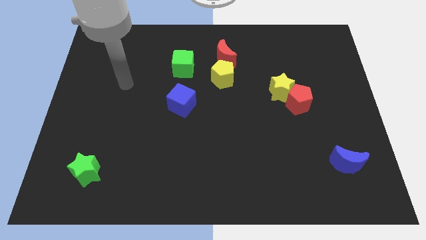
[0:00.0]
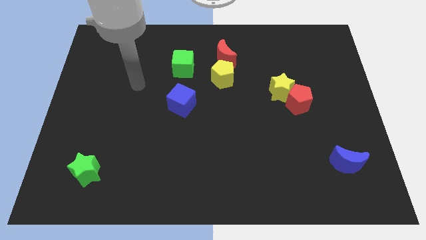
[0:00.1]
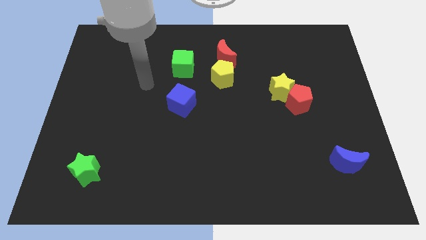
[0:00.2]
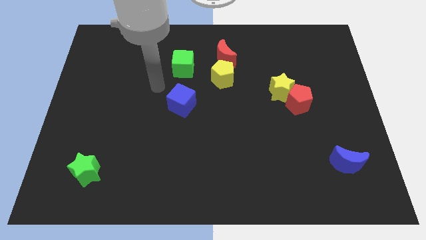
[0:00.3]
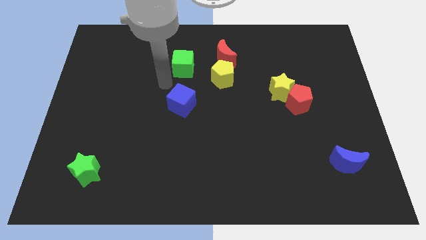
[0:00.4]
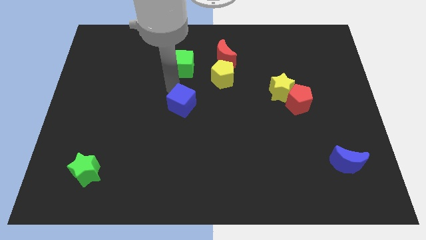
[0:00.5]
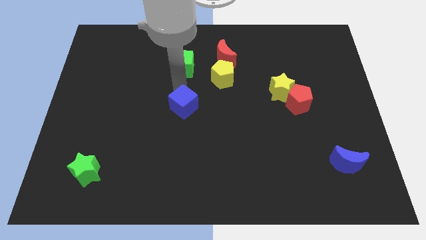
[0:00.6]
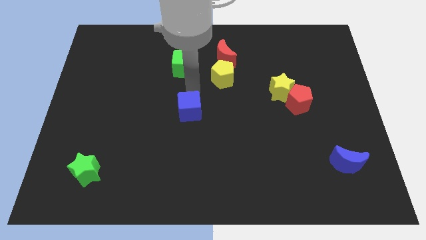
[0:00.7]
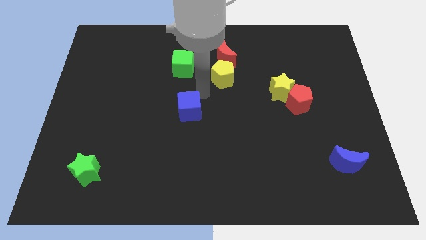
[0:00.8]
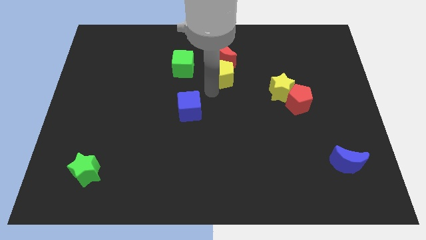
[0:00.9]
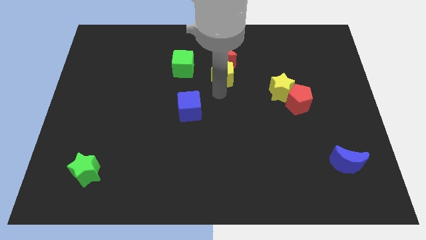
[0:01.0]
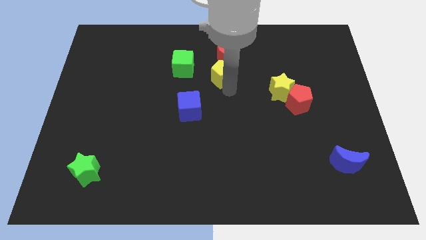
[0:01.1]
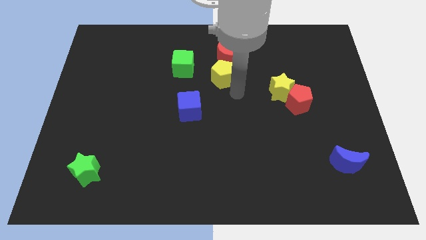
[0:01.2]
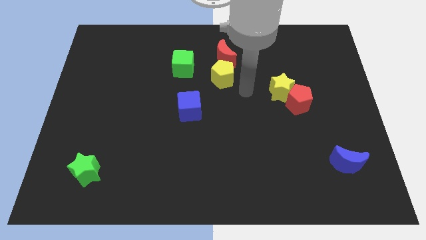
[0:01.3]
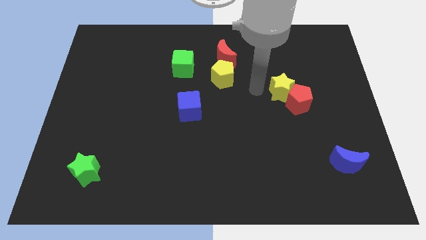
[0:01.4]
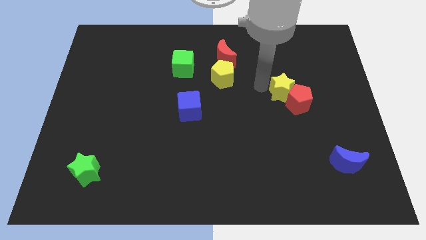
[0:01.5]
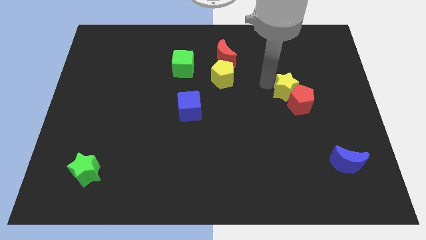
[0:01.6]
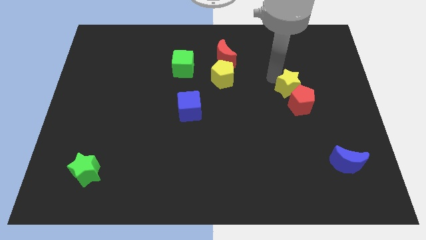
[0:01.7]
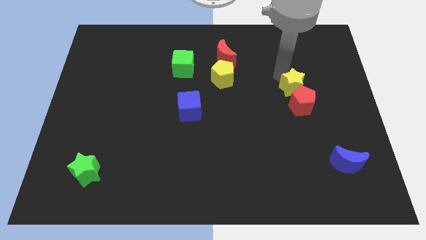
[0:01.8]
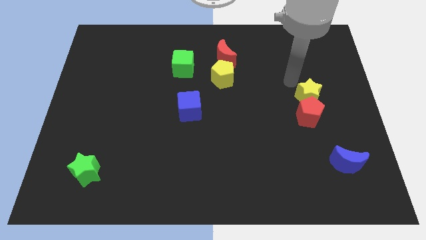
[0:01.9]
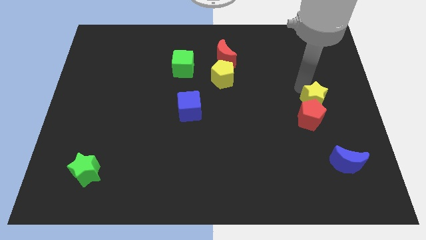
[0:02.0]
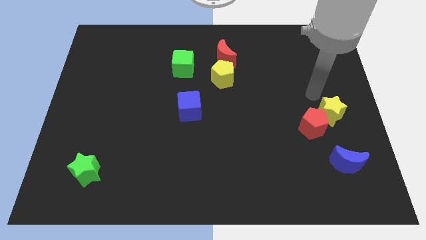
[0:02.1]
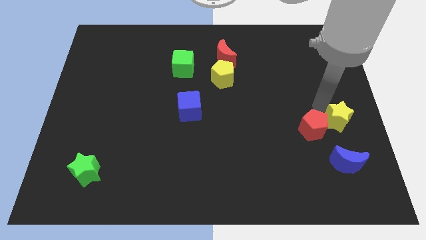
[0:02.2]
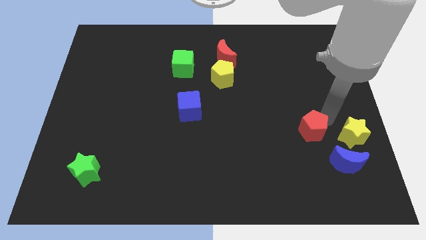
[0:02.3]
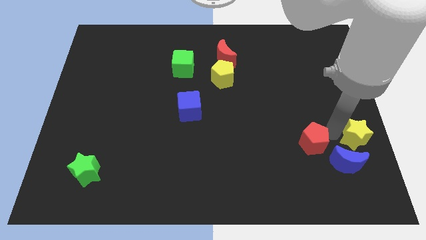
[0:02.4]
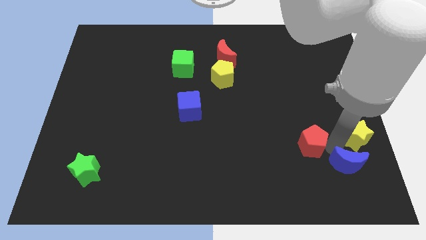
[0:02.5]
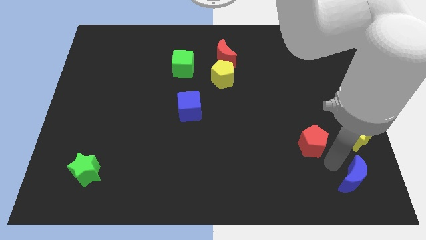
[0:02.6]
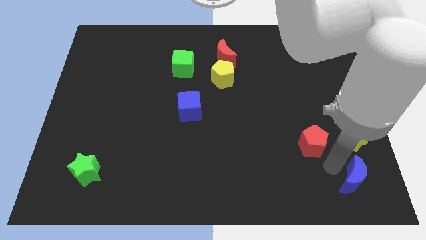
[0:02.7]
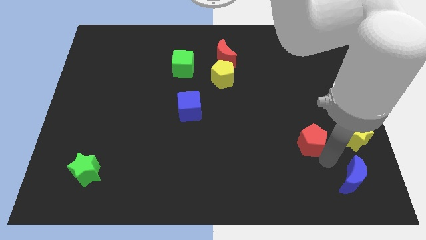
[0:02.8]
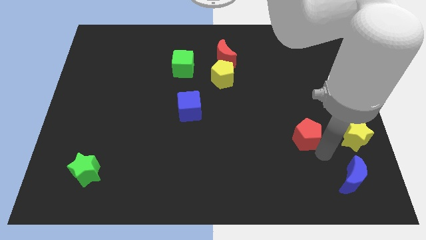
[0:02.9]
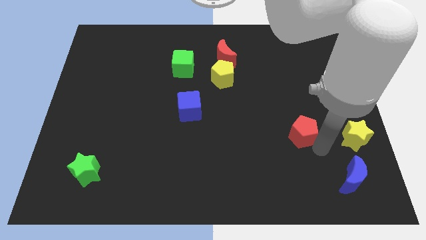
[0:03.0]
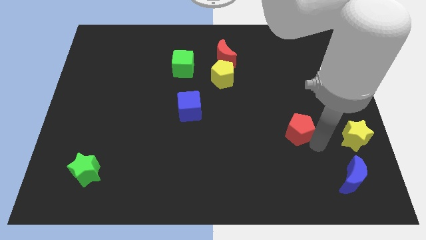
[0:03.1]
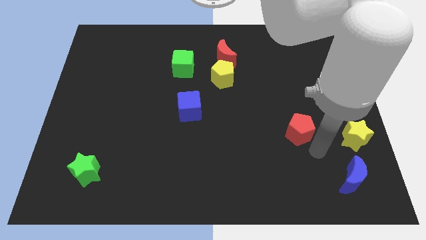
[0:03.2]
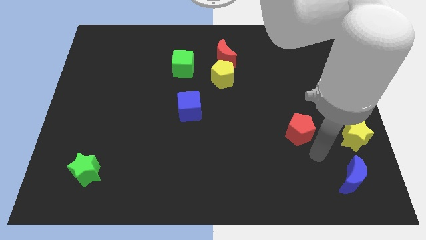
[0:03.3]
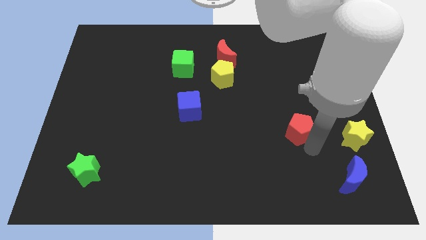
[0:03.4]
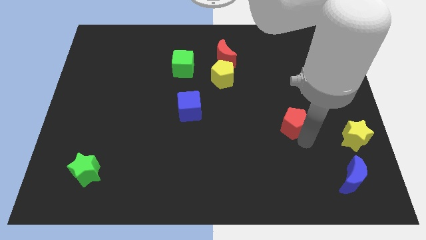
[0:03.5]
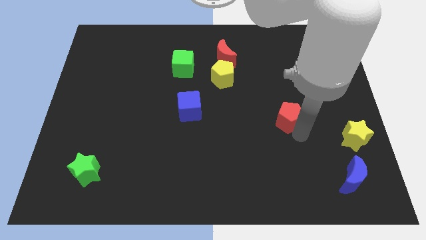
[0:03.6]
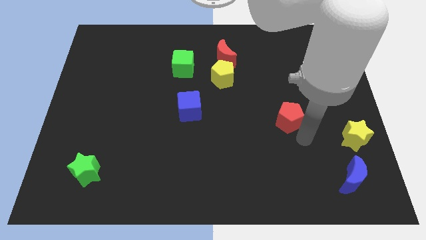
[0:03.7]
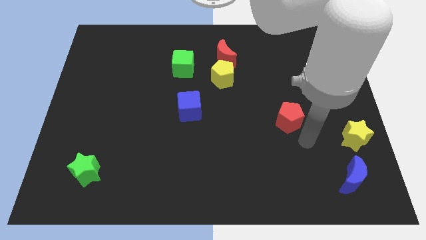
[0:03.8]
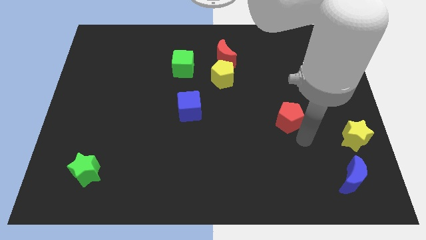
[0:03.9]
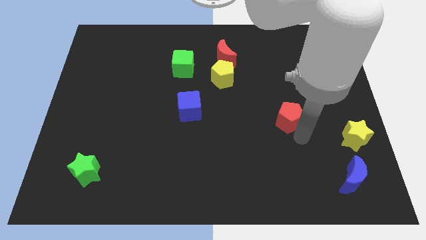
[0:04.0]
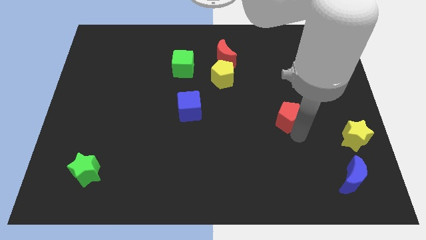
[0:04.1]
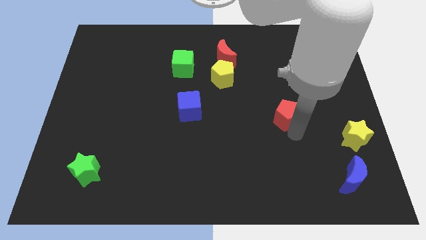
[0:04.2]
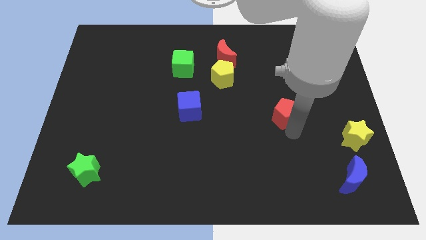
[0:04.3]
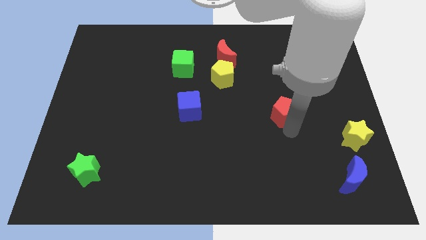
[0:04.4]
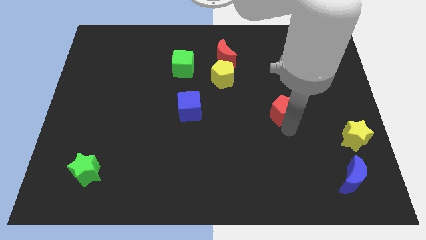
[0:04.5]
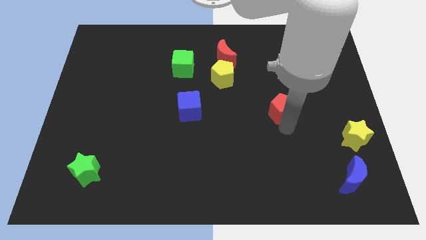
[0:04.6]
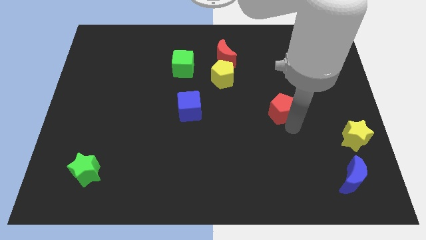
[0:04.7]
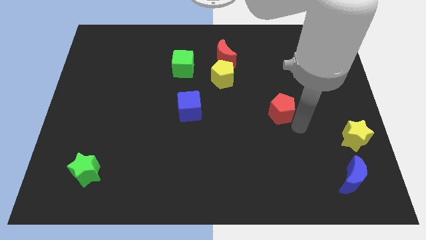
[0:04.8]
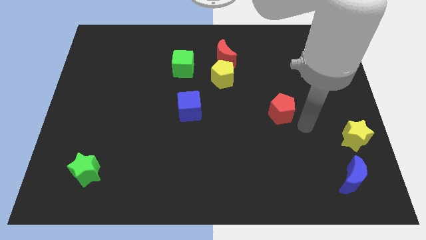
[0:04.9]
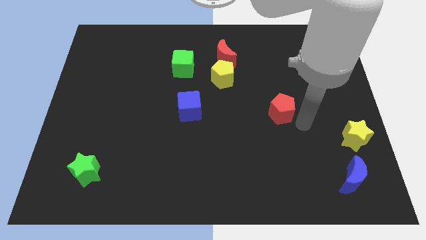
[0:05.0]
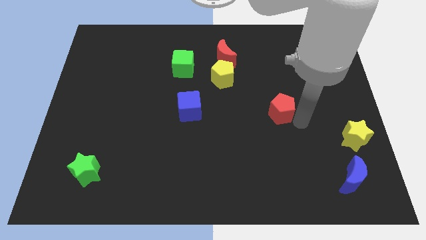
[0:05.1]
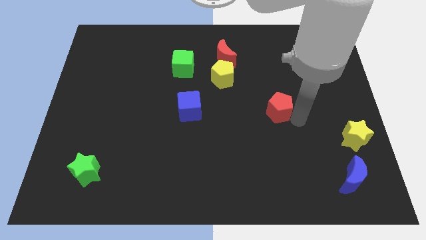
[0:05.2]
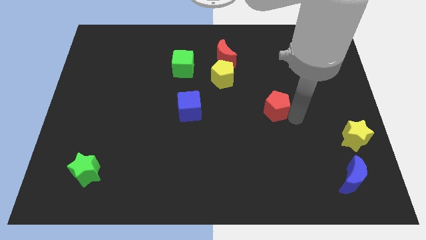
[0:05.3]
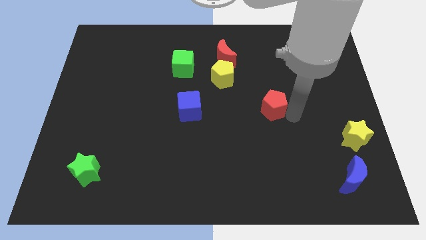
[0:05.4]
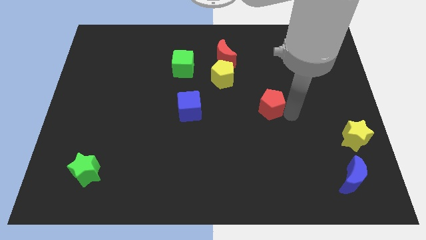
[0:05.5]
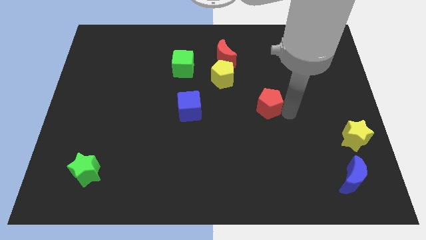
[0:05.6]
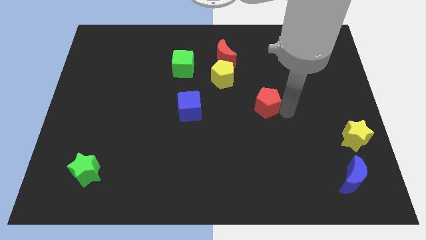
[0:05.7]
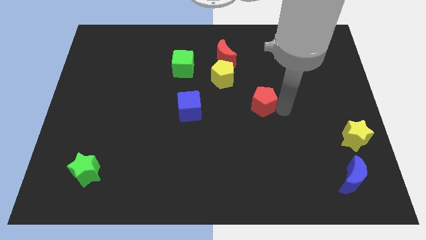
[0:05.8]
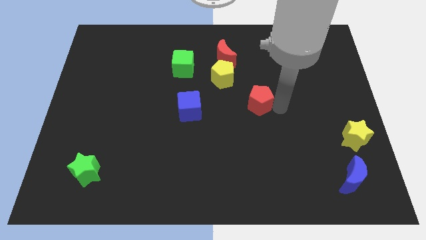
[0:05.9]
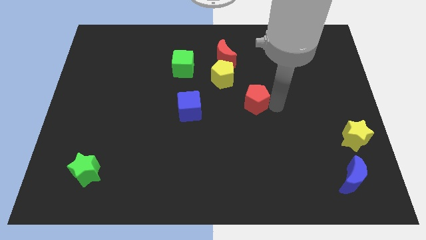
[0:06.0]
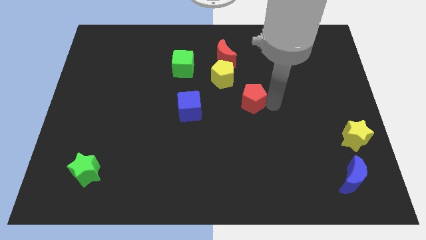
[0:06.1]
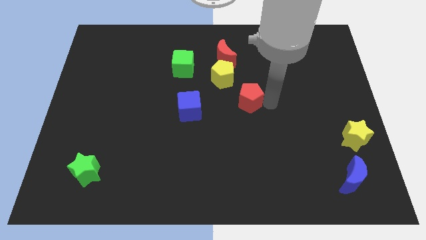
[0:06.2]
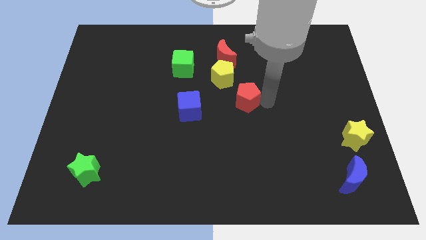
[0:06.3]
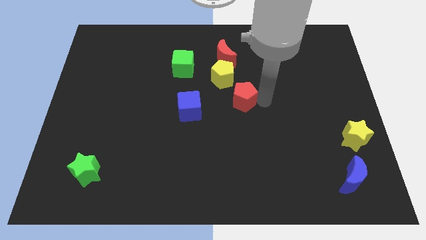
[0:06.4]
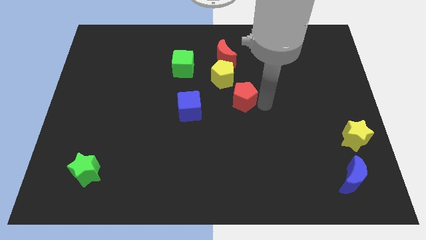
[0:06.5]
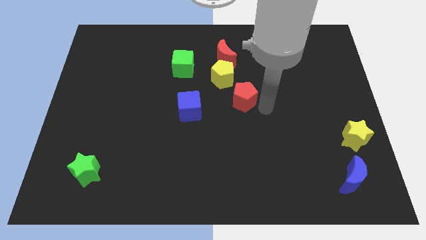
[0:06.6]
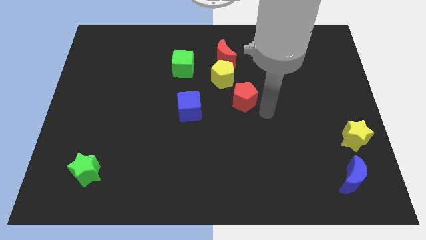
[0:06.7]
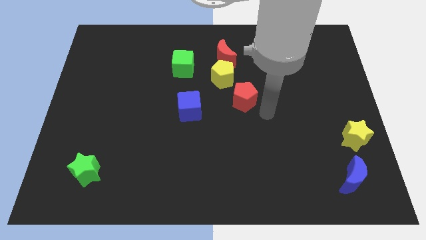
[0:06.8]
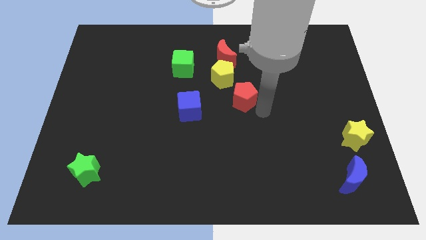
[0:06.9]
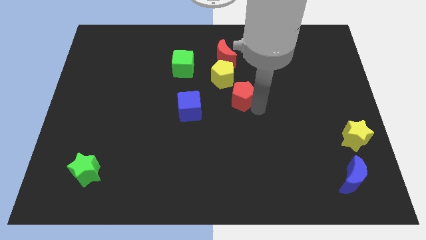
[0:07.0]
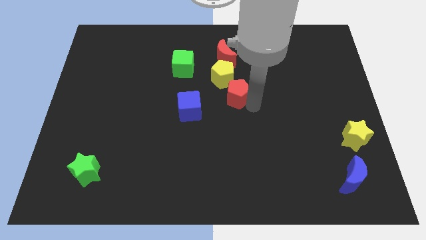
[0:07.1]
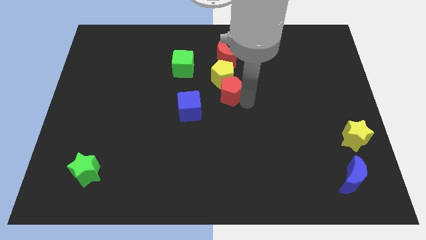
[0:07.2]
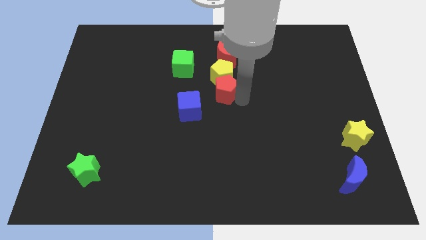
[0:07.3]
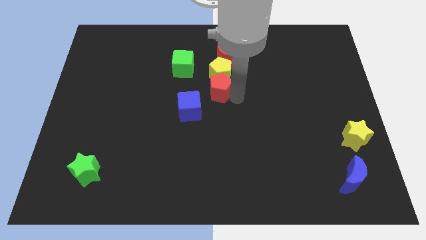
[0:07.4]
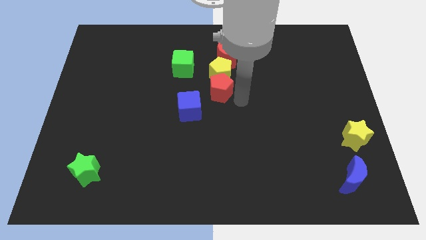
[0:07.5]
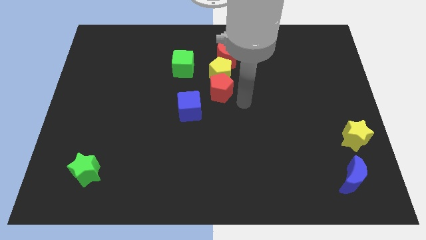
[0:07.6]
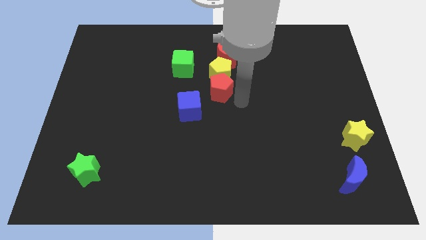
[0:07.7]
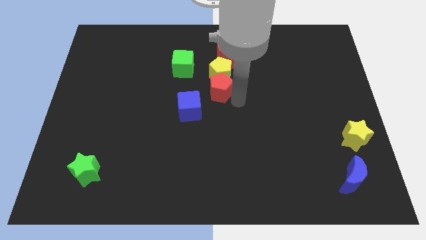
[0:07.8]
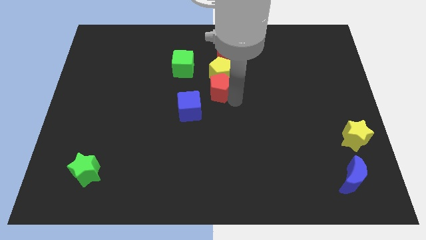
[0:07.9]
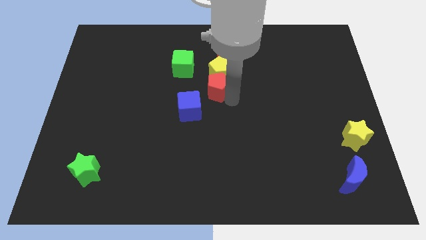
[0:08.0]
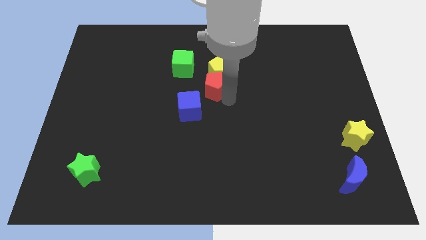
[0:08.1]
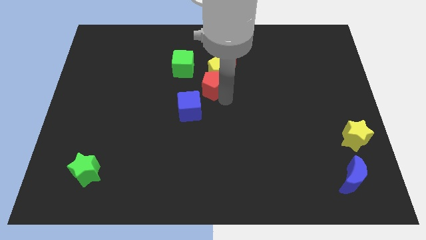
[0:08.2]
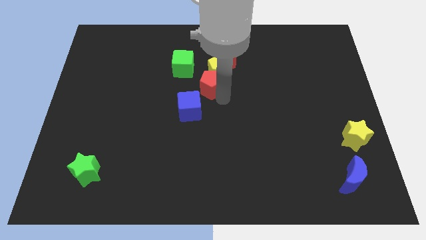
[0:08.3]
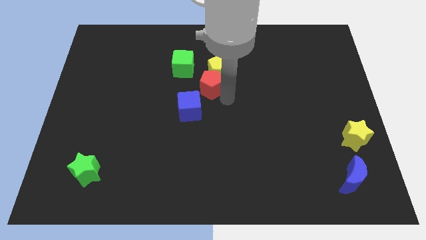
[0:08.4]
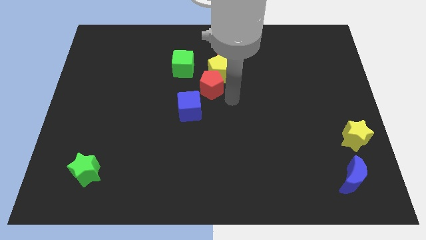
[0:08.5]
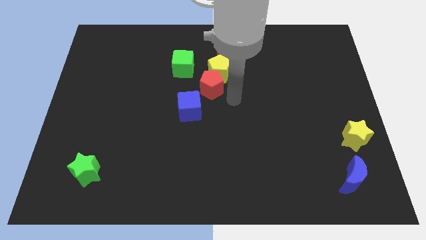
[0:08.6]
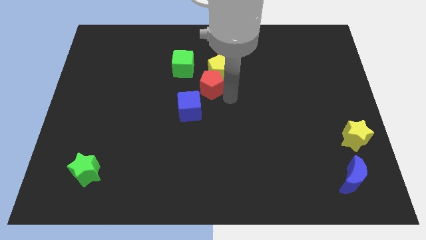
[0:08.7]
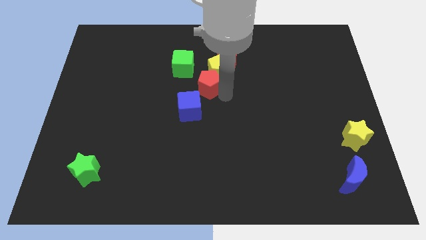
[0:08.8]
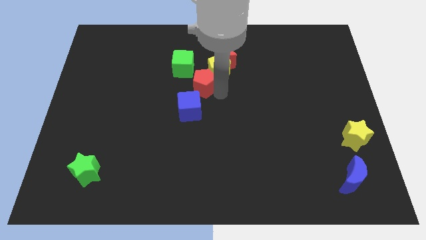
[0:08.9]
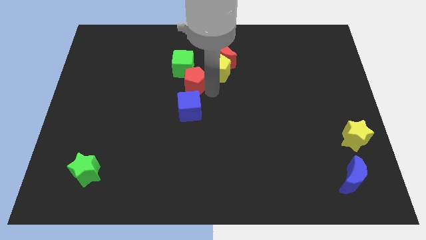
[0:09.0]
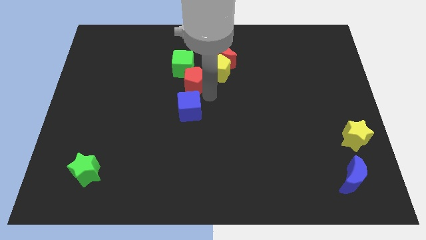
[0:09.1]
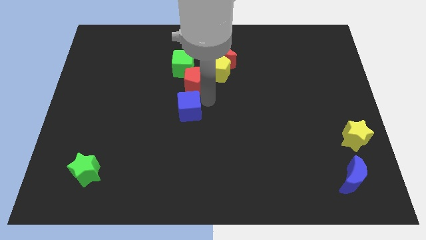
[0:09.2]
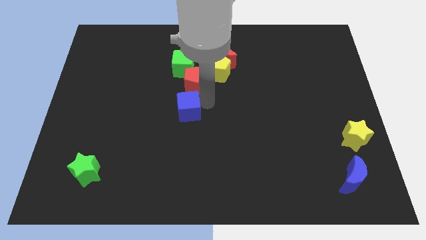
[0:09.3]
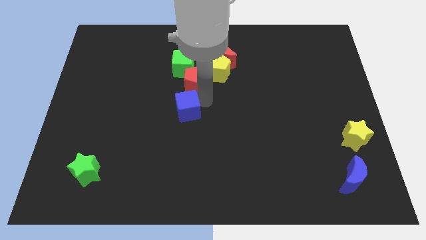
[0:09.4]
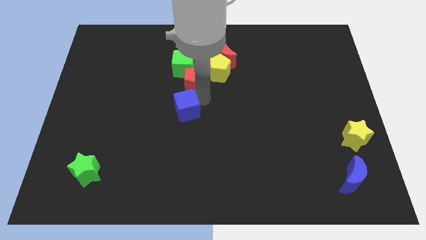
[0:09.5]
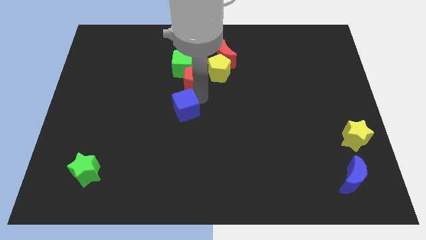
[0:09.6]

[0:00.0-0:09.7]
put the red pentagon close to the green cube
